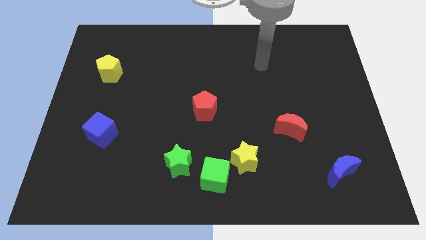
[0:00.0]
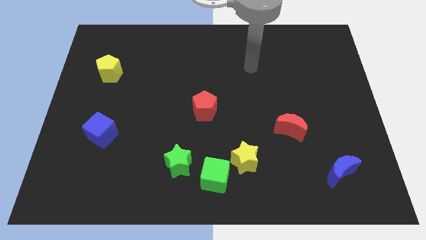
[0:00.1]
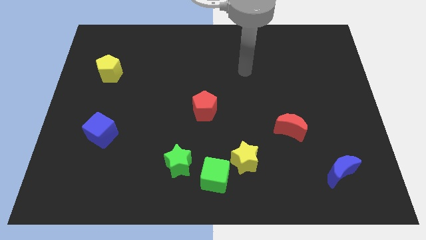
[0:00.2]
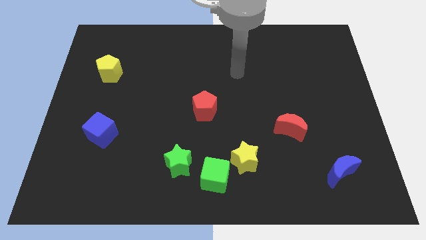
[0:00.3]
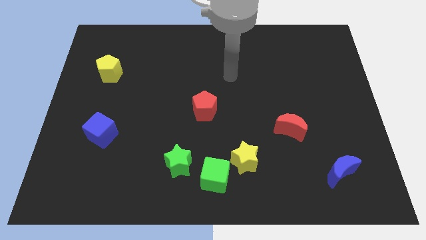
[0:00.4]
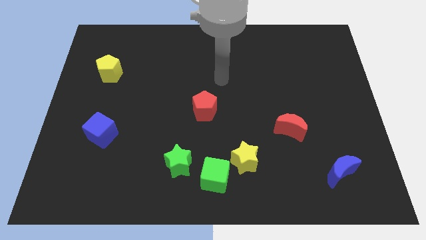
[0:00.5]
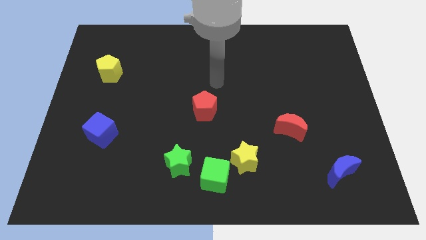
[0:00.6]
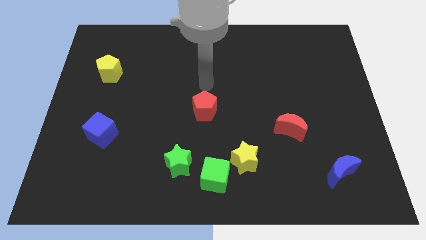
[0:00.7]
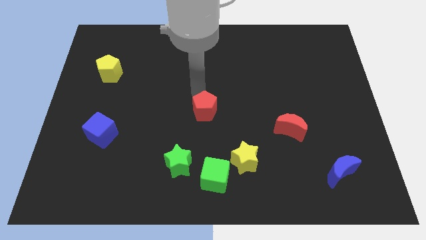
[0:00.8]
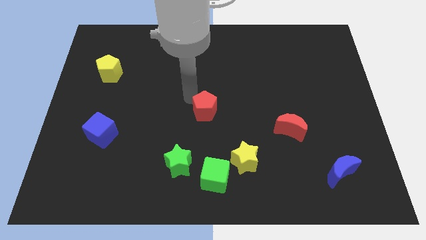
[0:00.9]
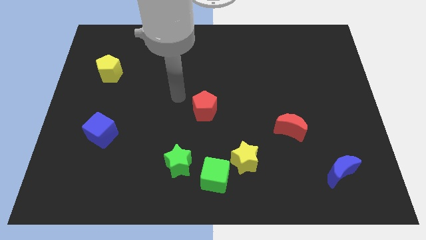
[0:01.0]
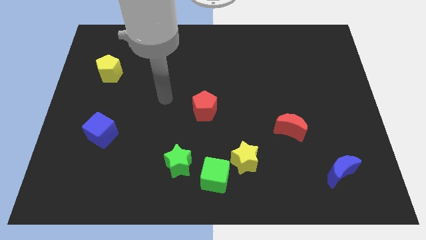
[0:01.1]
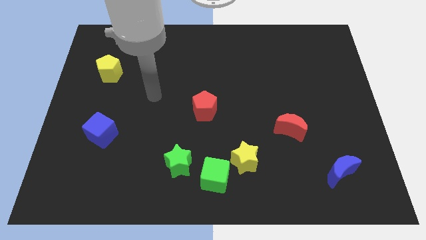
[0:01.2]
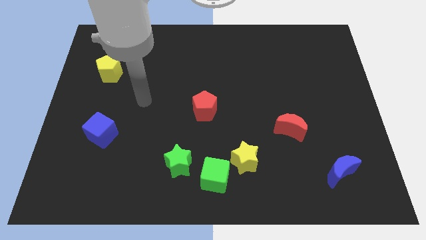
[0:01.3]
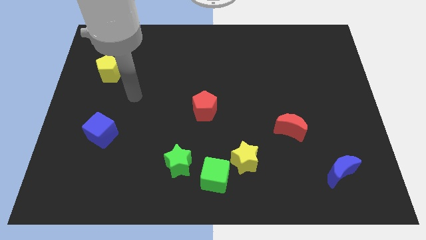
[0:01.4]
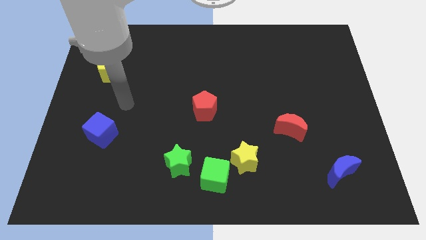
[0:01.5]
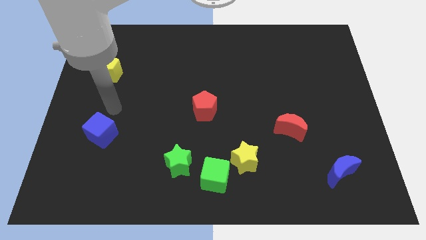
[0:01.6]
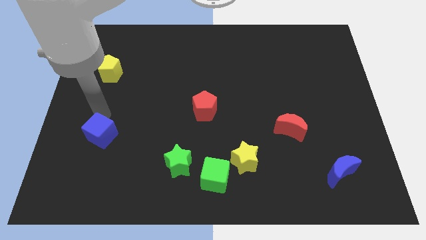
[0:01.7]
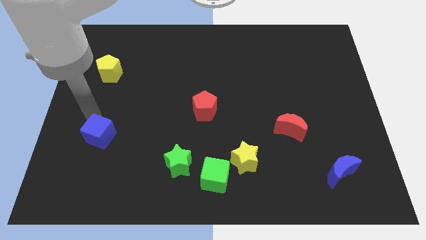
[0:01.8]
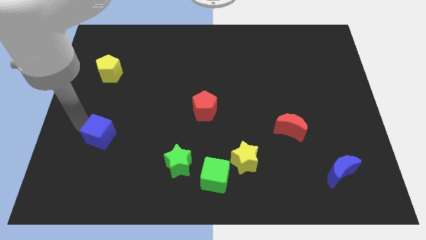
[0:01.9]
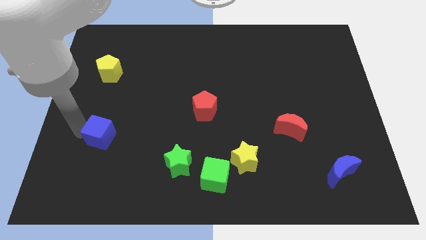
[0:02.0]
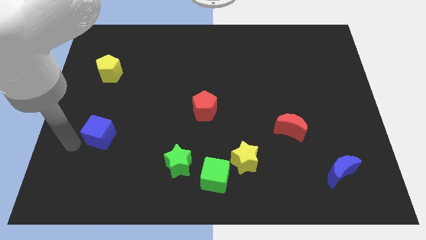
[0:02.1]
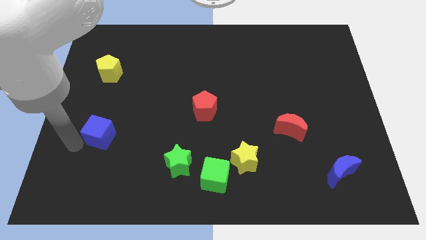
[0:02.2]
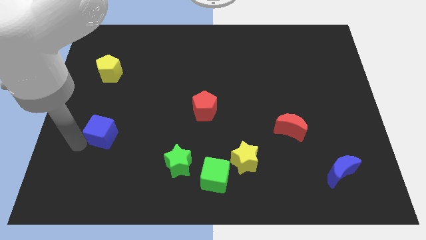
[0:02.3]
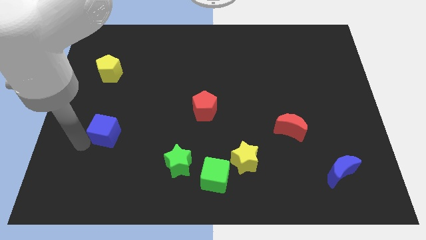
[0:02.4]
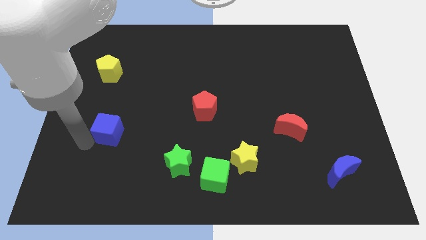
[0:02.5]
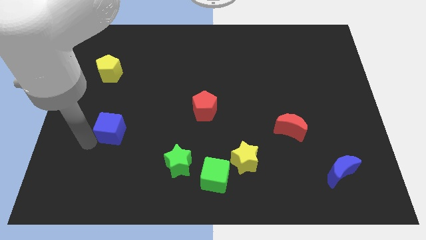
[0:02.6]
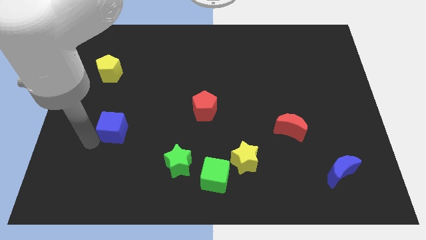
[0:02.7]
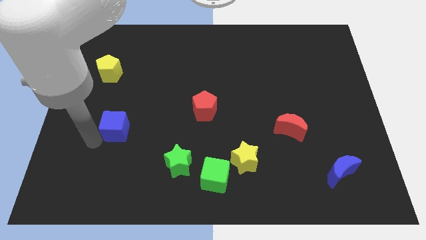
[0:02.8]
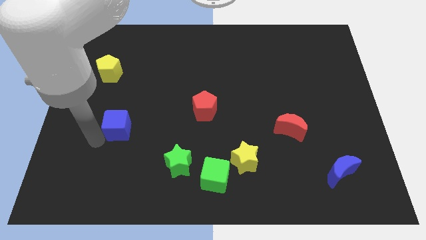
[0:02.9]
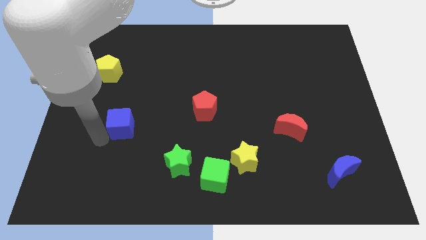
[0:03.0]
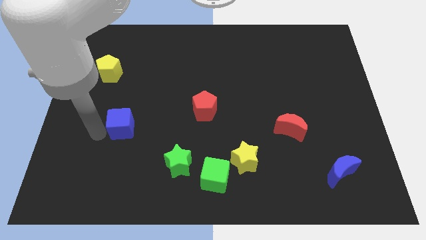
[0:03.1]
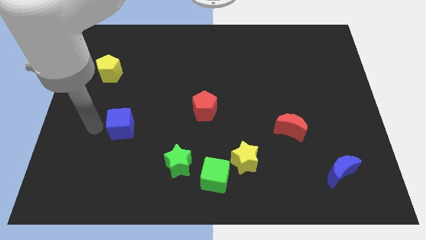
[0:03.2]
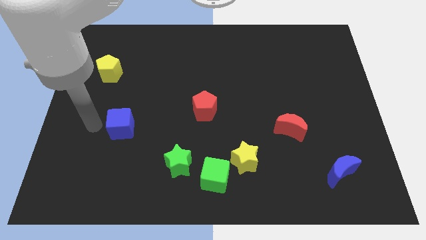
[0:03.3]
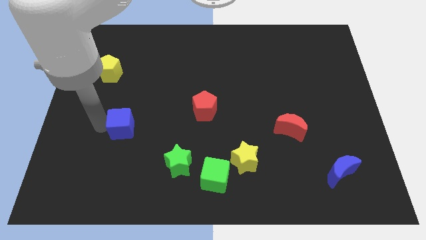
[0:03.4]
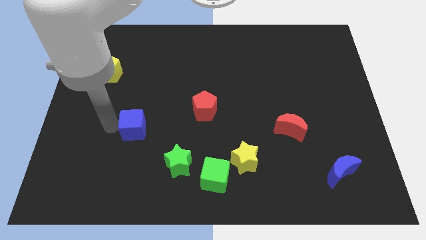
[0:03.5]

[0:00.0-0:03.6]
slightly push the blue cube right

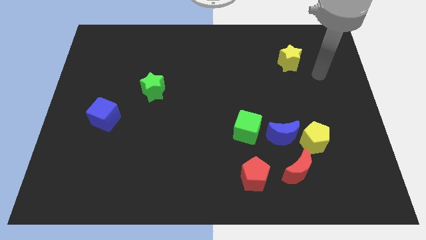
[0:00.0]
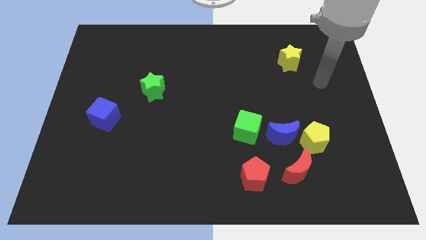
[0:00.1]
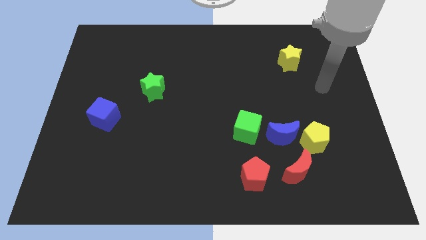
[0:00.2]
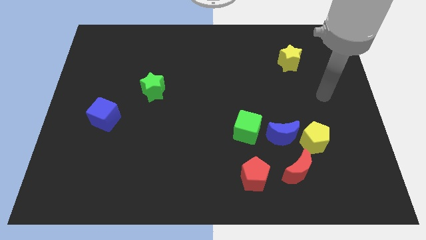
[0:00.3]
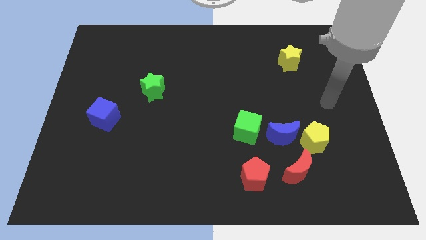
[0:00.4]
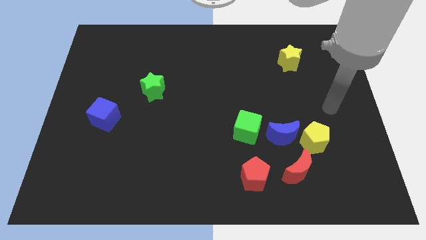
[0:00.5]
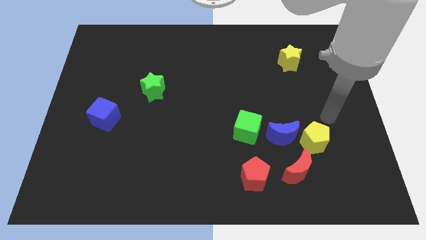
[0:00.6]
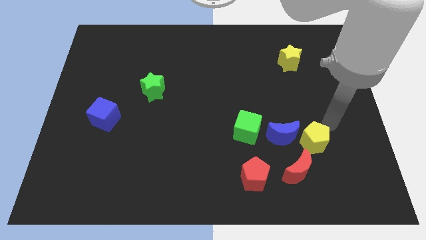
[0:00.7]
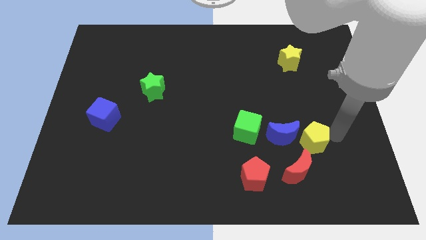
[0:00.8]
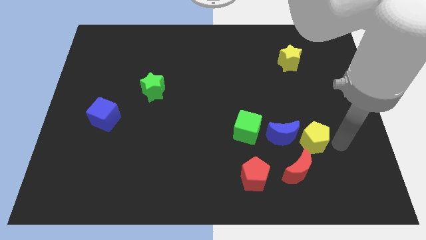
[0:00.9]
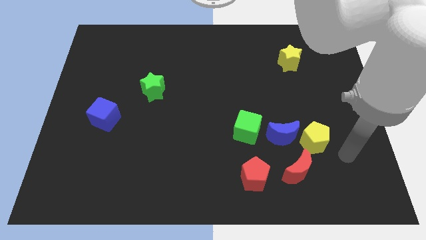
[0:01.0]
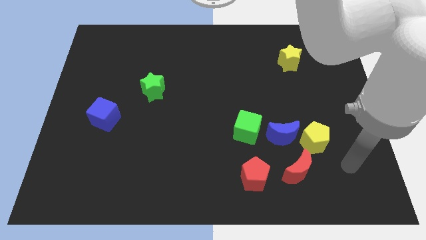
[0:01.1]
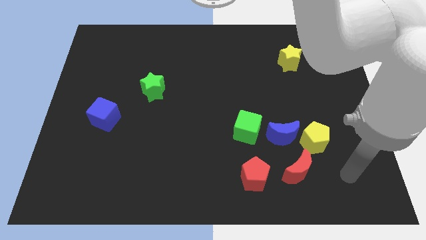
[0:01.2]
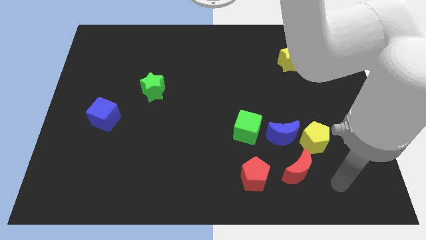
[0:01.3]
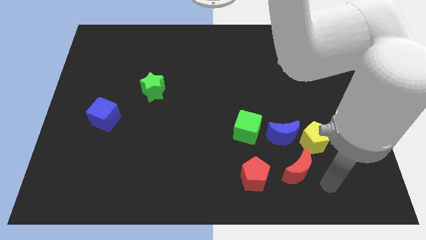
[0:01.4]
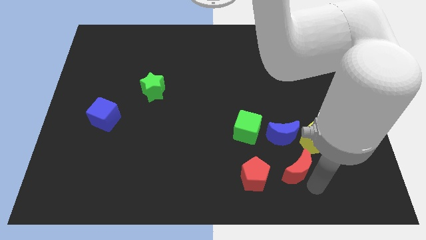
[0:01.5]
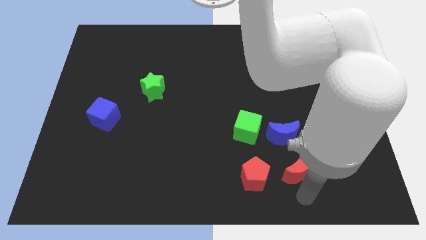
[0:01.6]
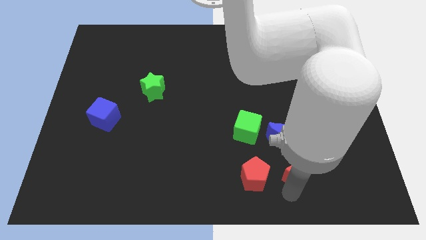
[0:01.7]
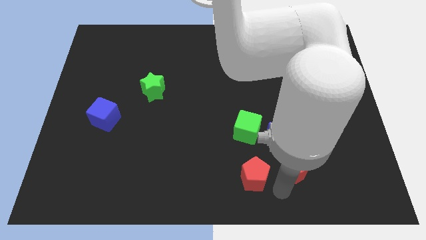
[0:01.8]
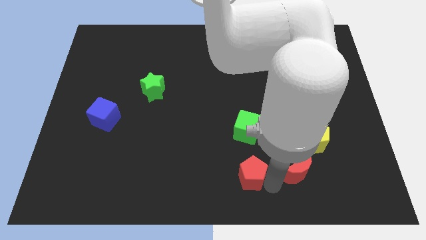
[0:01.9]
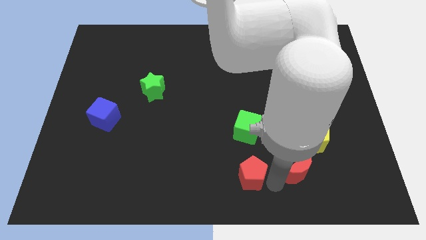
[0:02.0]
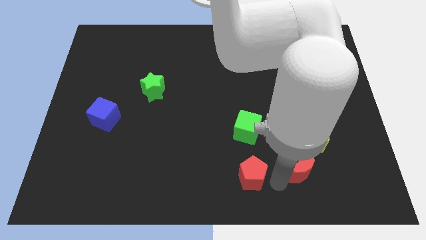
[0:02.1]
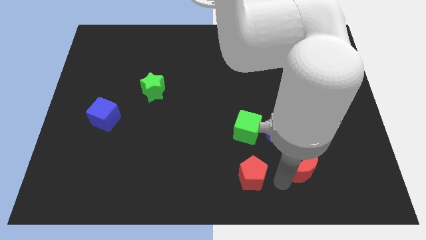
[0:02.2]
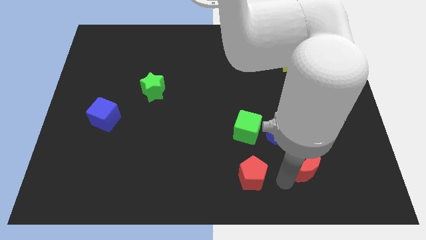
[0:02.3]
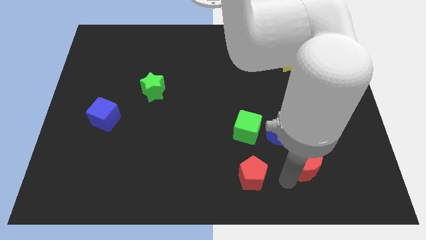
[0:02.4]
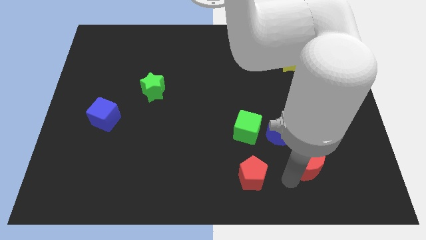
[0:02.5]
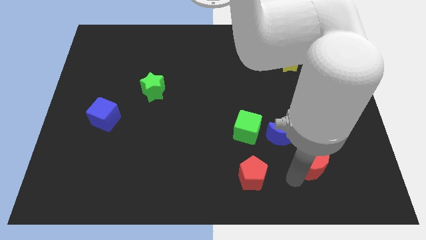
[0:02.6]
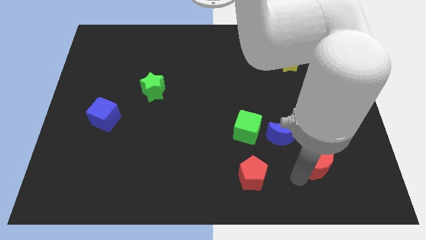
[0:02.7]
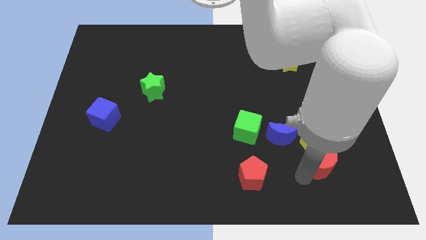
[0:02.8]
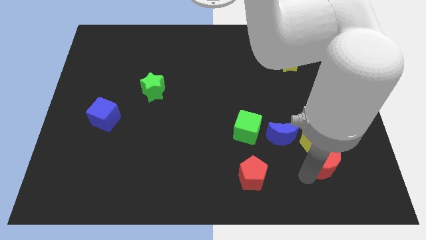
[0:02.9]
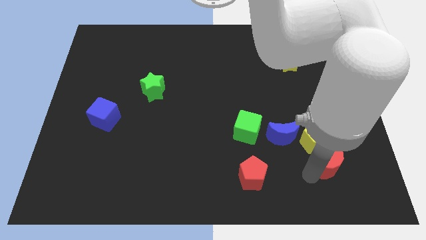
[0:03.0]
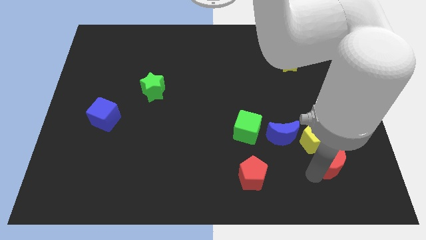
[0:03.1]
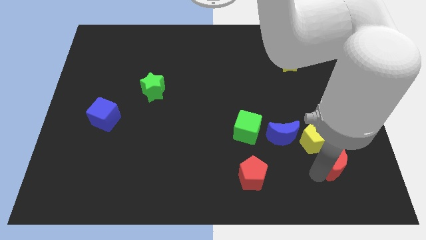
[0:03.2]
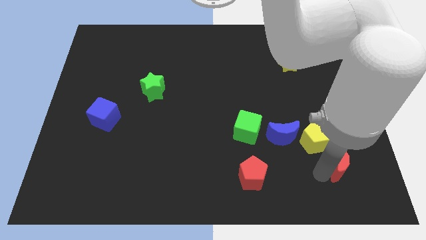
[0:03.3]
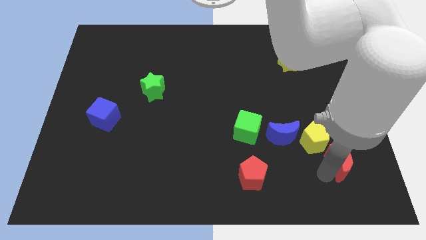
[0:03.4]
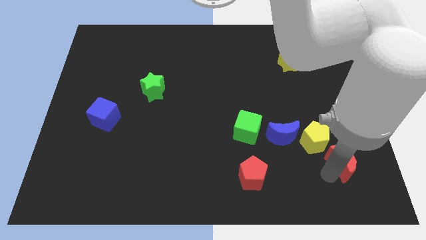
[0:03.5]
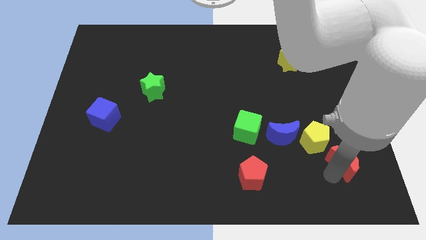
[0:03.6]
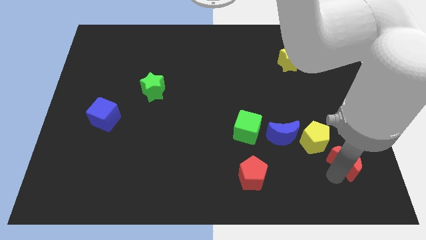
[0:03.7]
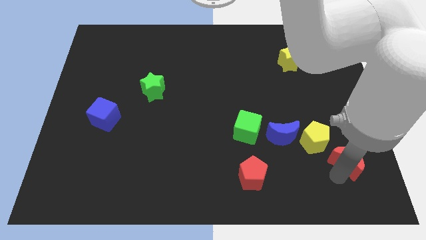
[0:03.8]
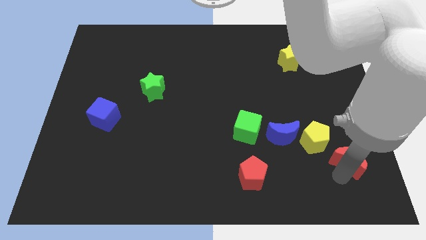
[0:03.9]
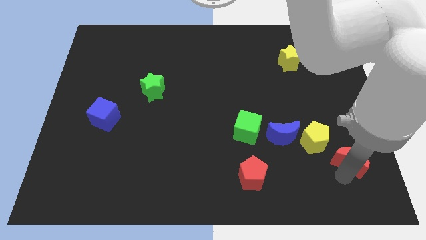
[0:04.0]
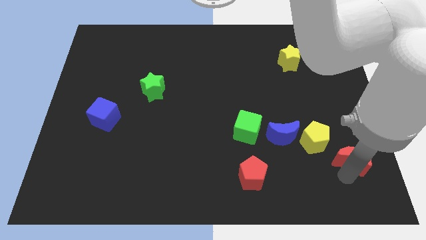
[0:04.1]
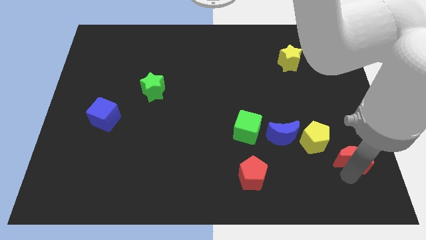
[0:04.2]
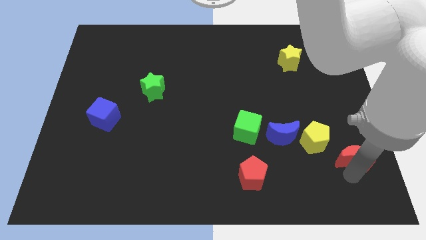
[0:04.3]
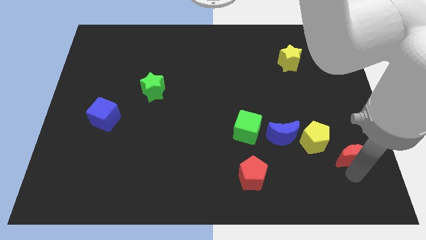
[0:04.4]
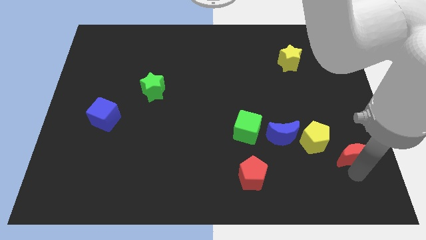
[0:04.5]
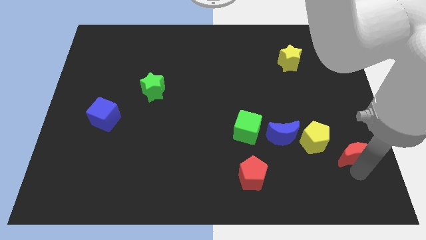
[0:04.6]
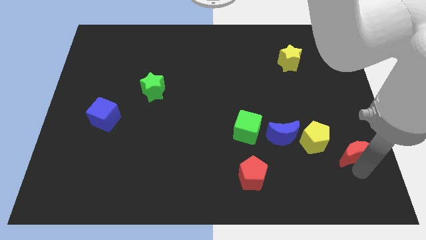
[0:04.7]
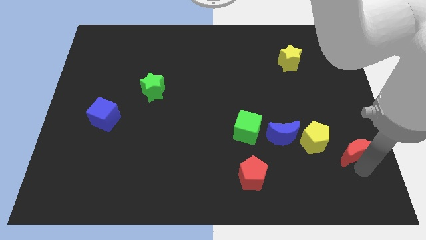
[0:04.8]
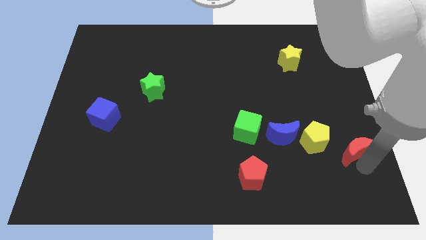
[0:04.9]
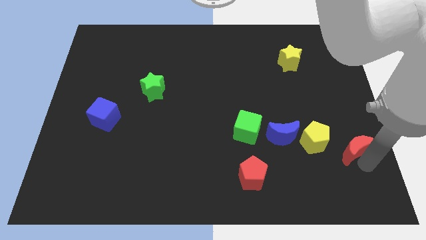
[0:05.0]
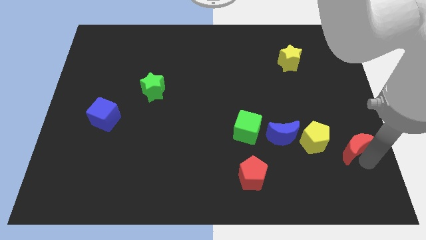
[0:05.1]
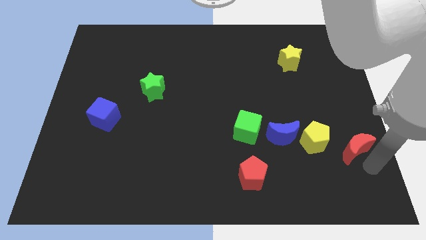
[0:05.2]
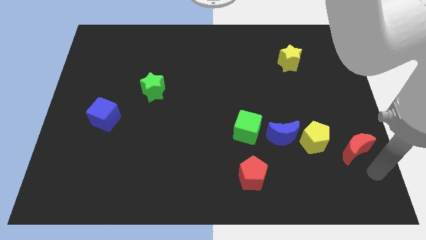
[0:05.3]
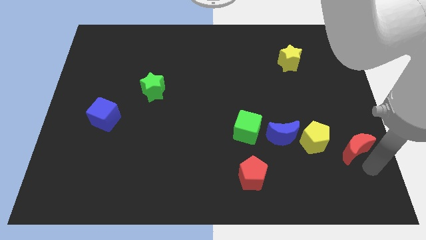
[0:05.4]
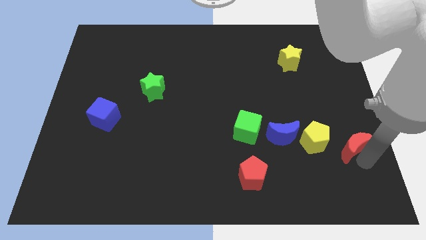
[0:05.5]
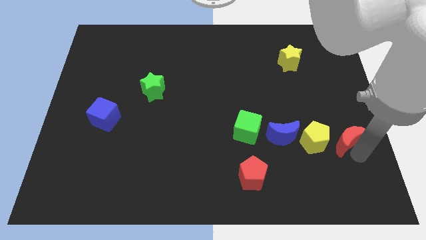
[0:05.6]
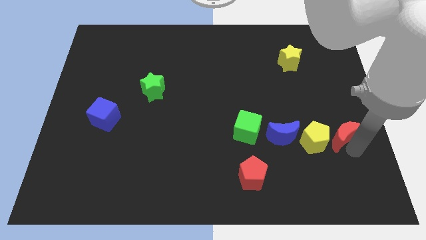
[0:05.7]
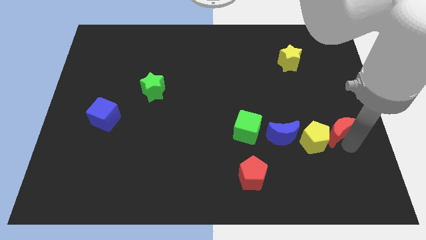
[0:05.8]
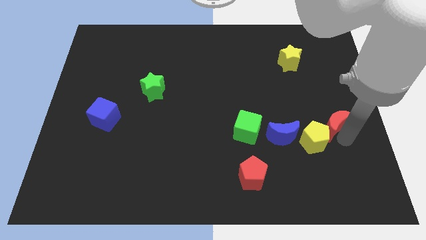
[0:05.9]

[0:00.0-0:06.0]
slightly push the red moon up
